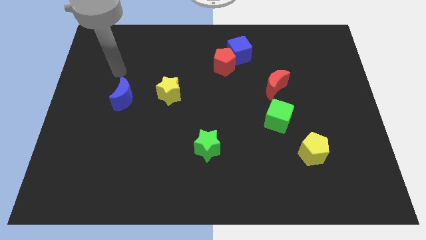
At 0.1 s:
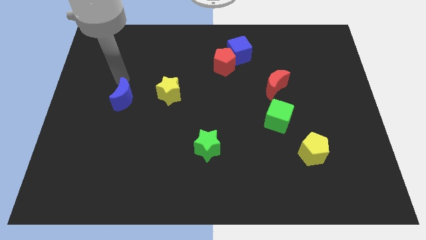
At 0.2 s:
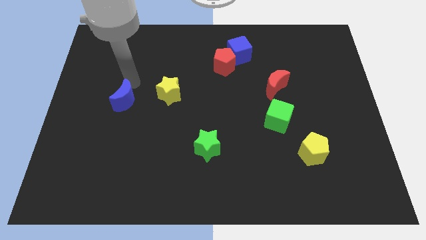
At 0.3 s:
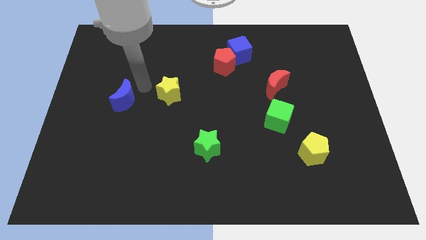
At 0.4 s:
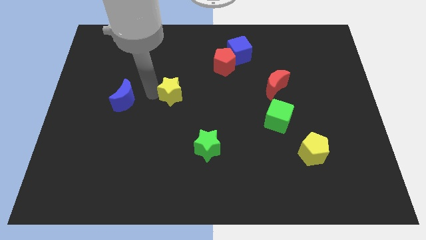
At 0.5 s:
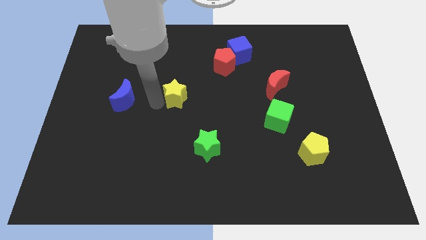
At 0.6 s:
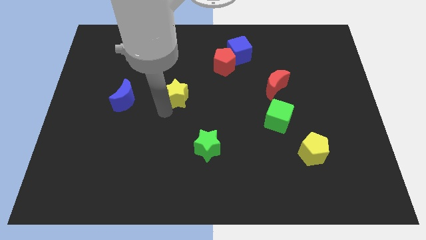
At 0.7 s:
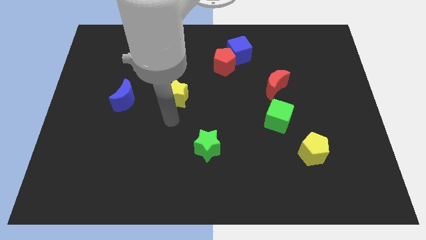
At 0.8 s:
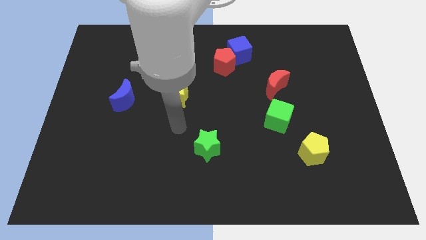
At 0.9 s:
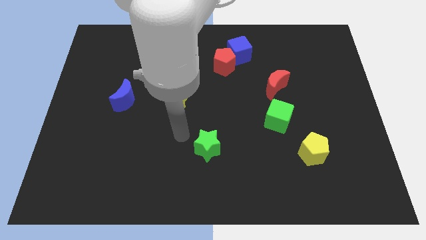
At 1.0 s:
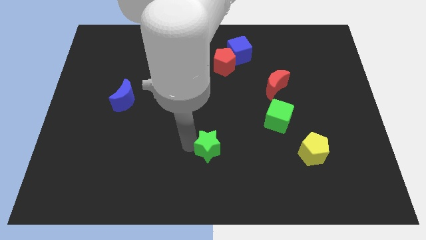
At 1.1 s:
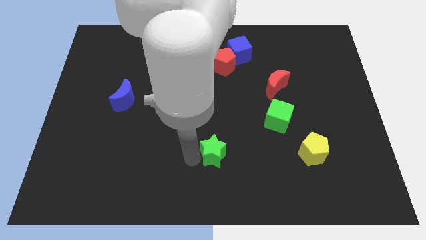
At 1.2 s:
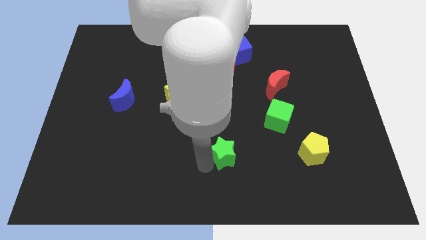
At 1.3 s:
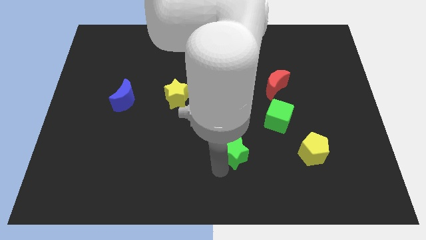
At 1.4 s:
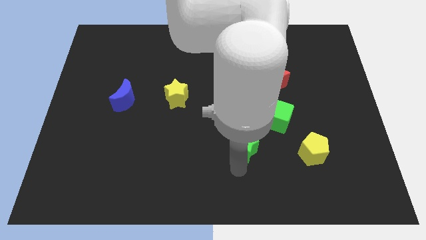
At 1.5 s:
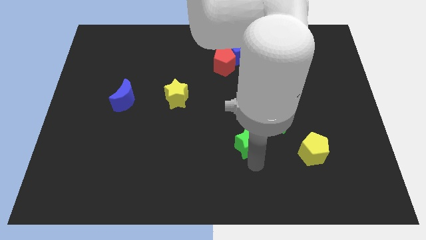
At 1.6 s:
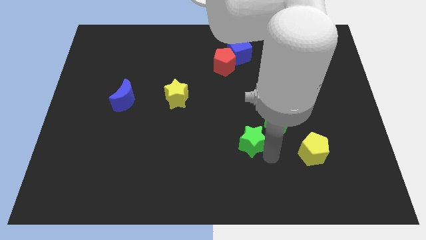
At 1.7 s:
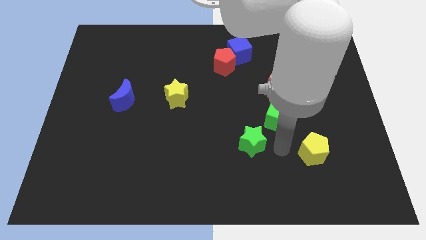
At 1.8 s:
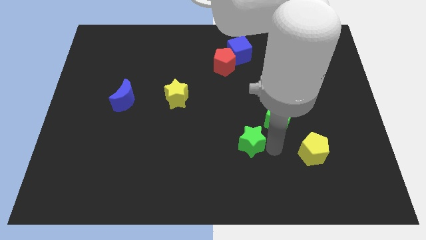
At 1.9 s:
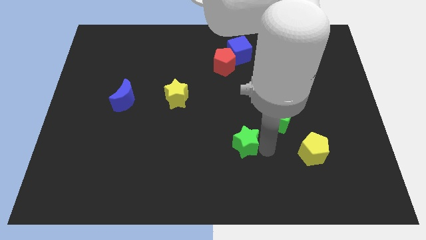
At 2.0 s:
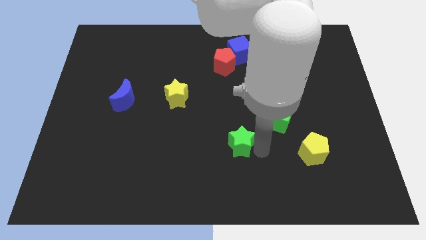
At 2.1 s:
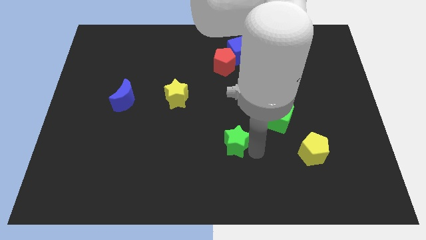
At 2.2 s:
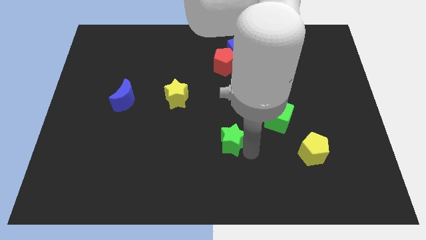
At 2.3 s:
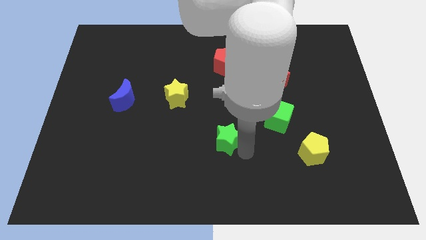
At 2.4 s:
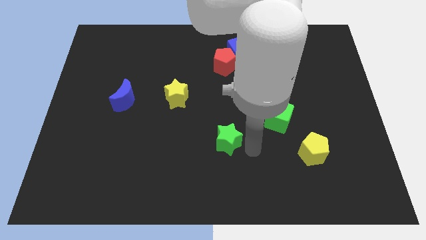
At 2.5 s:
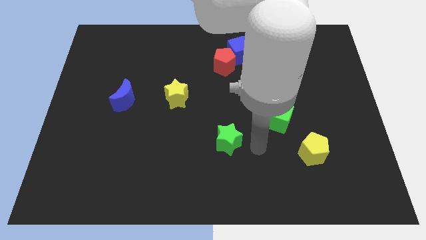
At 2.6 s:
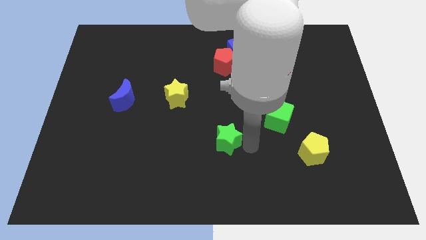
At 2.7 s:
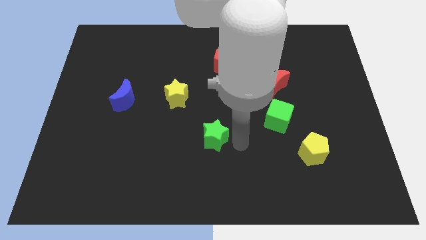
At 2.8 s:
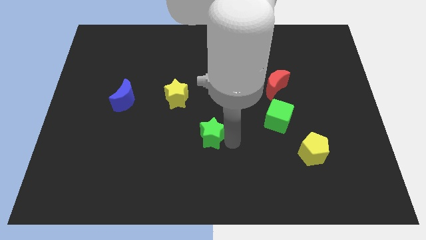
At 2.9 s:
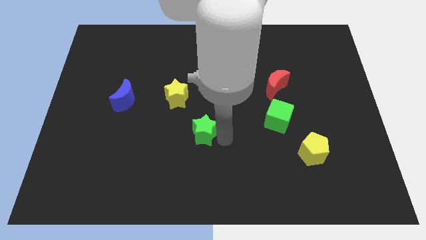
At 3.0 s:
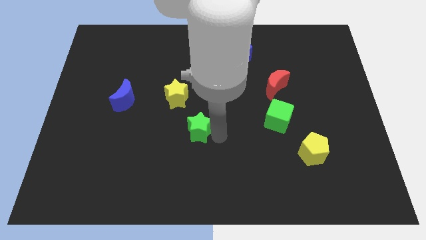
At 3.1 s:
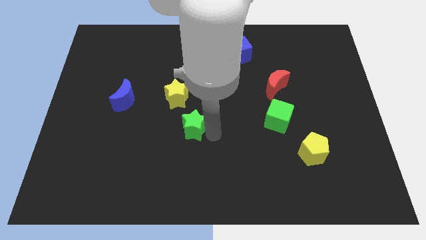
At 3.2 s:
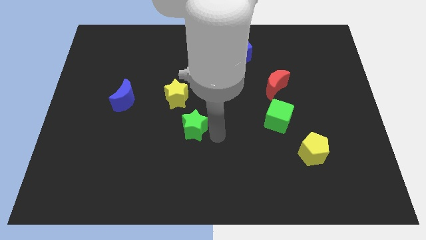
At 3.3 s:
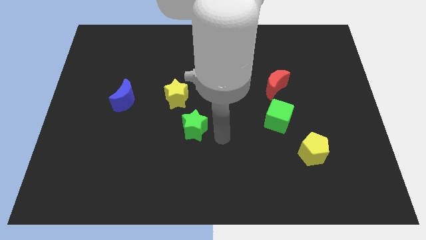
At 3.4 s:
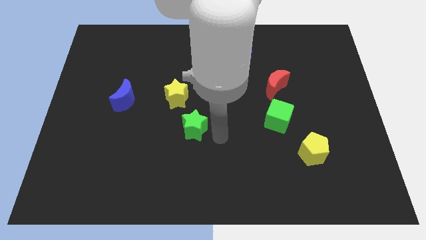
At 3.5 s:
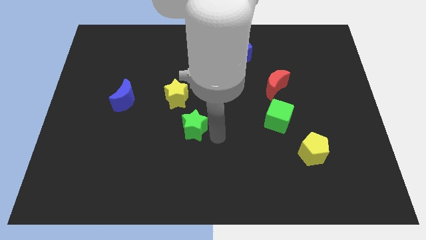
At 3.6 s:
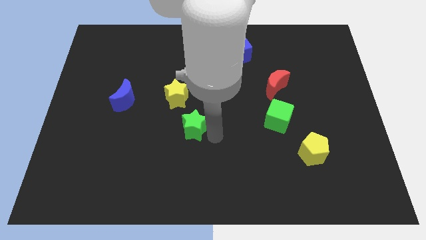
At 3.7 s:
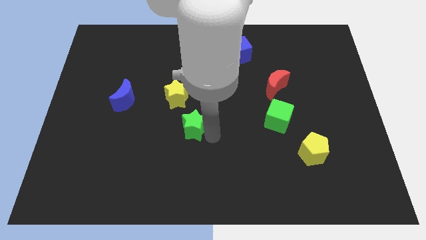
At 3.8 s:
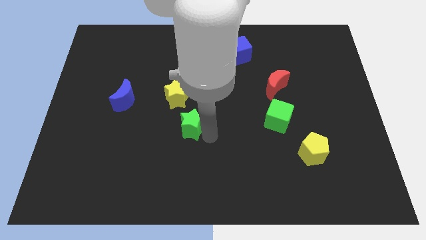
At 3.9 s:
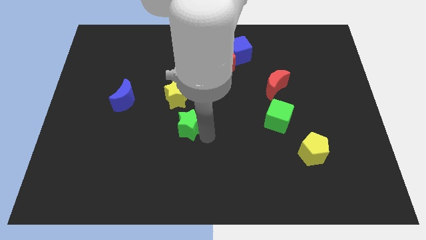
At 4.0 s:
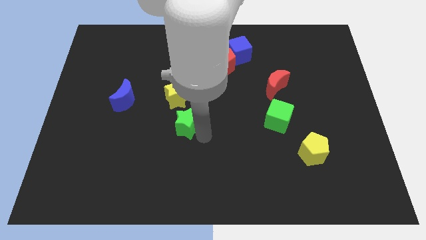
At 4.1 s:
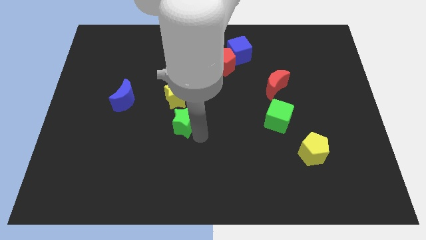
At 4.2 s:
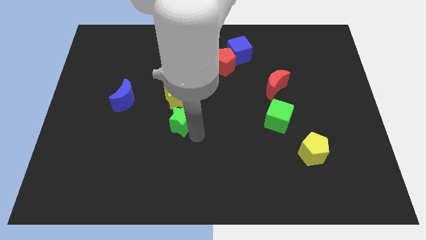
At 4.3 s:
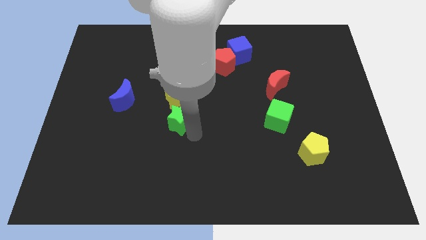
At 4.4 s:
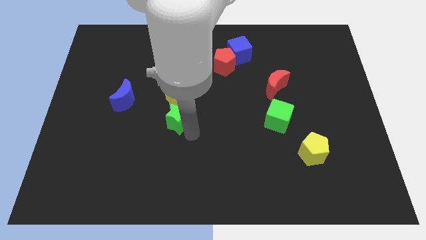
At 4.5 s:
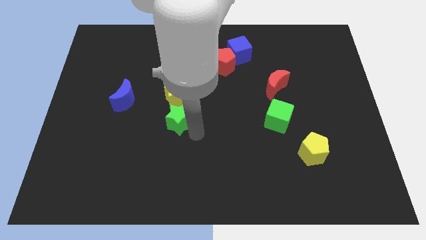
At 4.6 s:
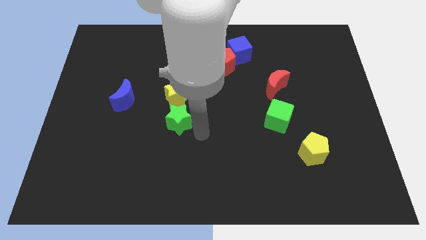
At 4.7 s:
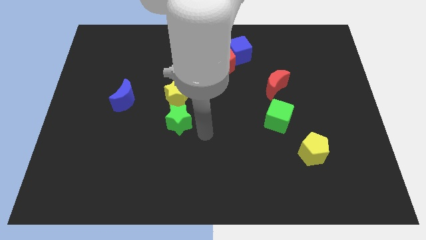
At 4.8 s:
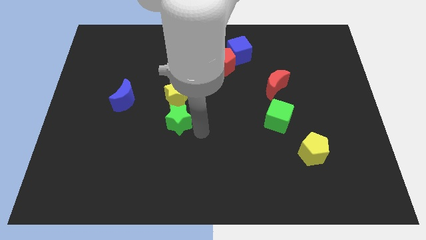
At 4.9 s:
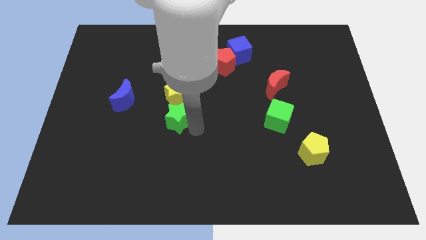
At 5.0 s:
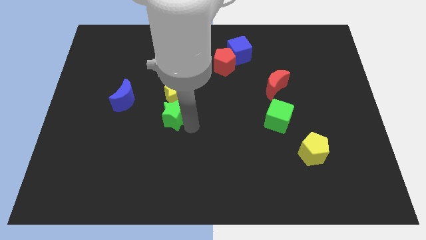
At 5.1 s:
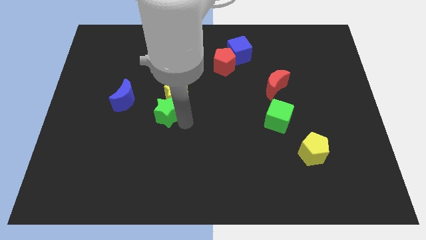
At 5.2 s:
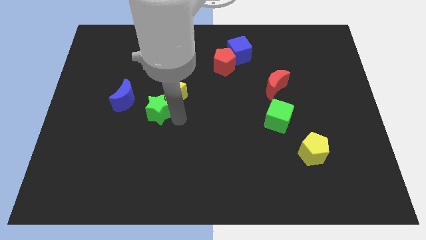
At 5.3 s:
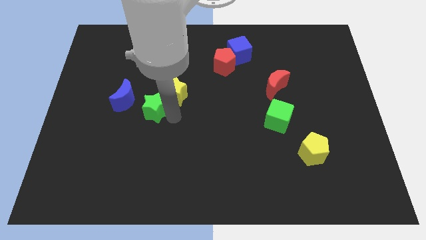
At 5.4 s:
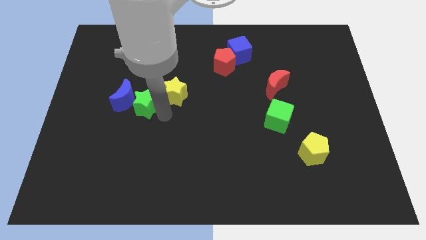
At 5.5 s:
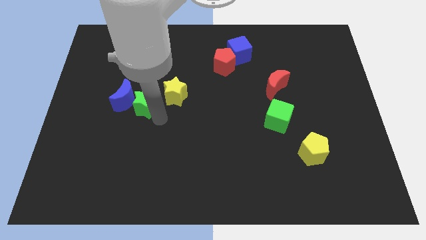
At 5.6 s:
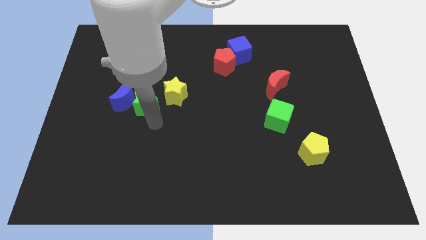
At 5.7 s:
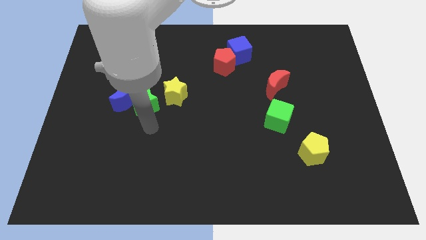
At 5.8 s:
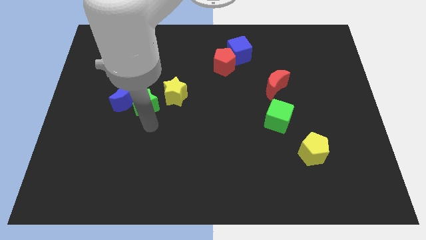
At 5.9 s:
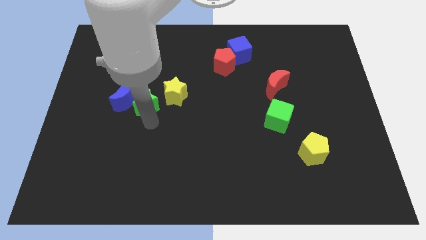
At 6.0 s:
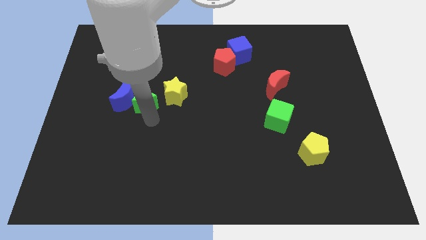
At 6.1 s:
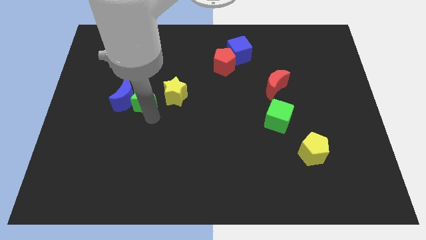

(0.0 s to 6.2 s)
slide the green star diagonally up and to the left

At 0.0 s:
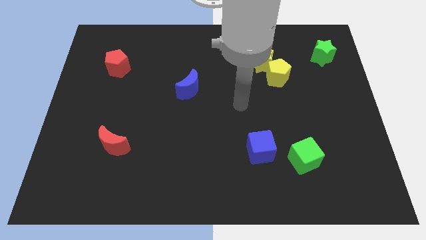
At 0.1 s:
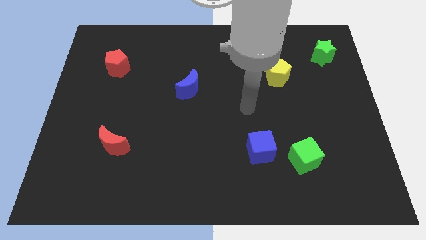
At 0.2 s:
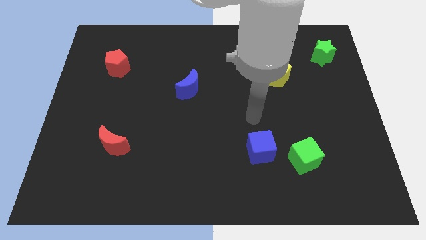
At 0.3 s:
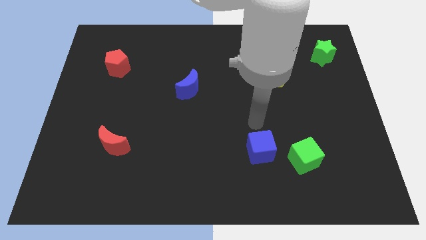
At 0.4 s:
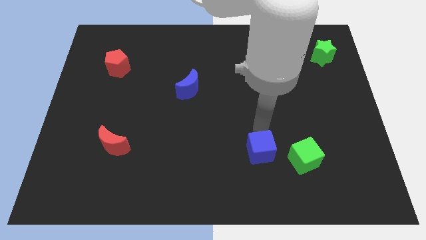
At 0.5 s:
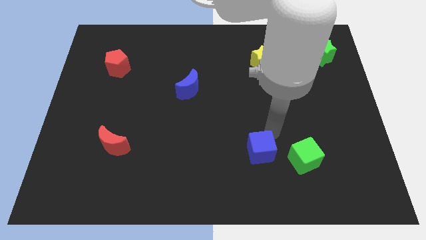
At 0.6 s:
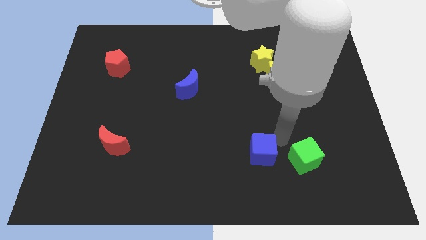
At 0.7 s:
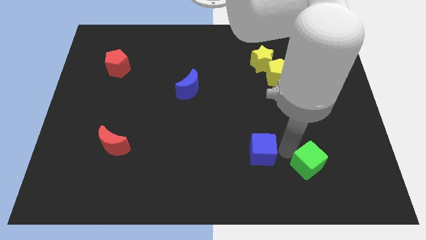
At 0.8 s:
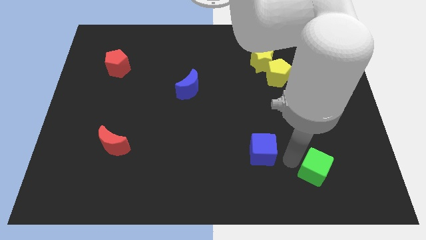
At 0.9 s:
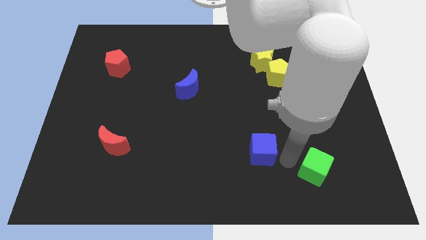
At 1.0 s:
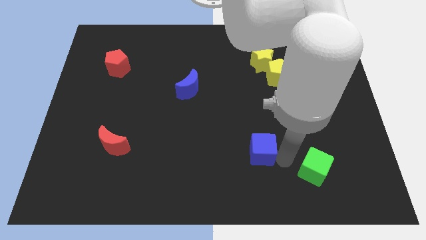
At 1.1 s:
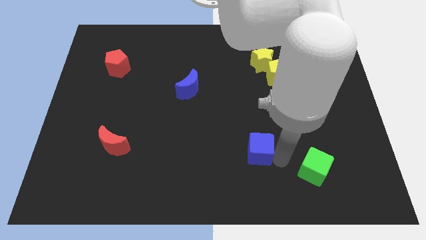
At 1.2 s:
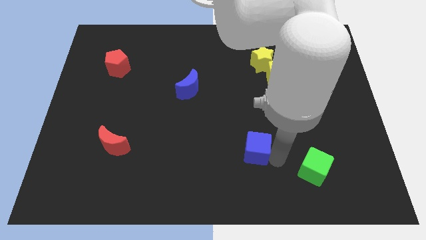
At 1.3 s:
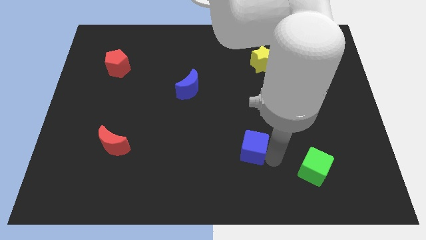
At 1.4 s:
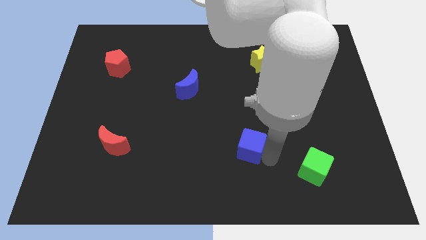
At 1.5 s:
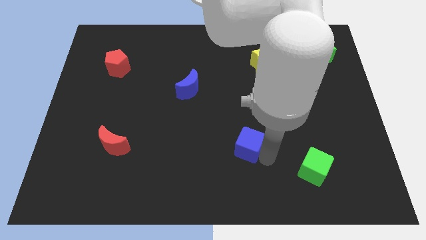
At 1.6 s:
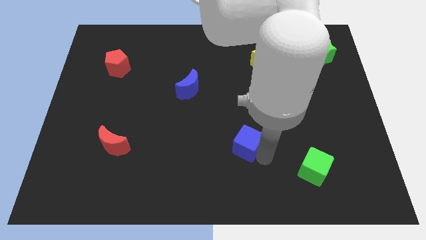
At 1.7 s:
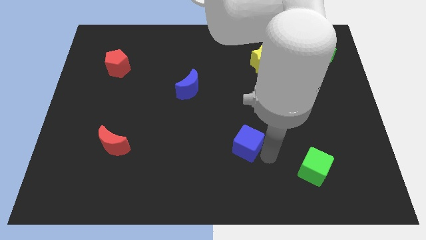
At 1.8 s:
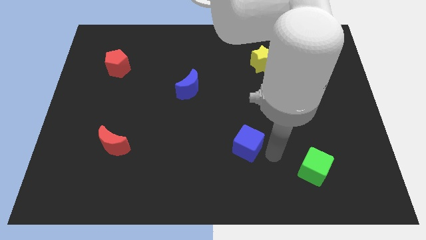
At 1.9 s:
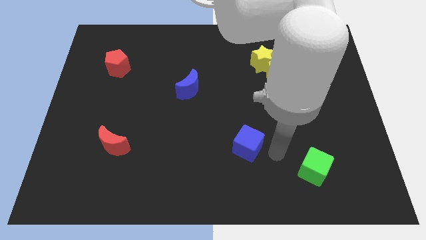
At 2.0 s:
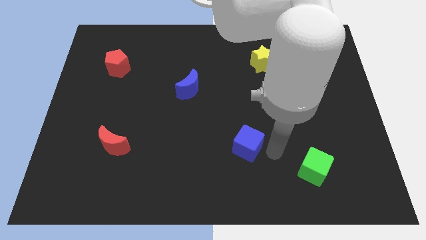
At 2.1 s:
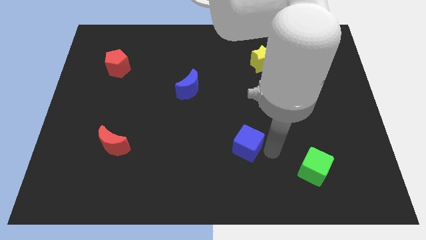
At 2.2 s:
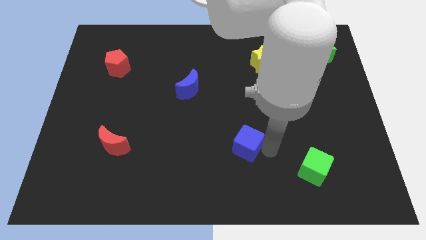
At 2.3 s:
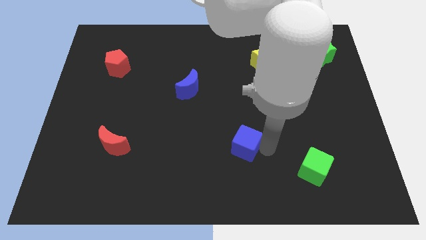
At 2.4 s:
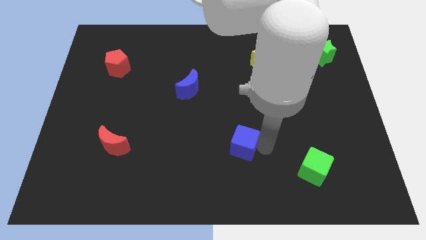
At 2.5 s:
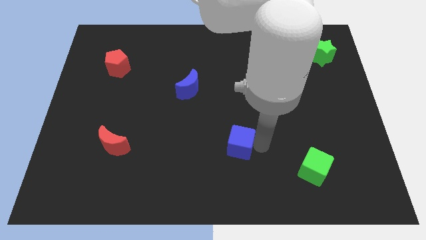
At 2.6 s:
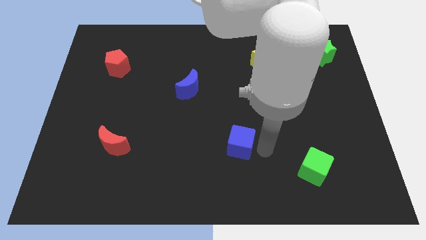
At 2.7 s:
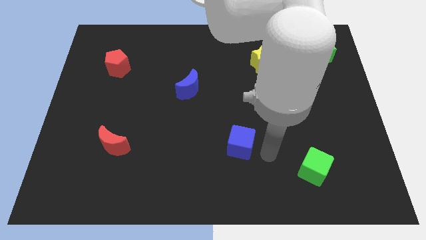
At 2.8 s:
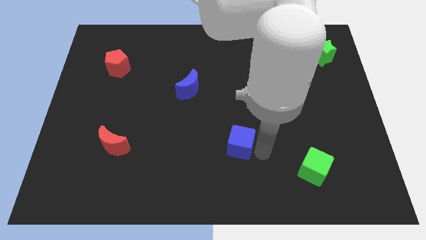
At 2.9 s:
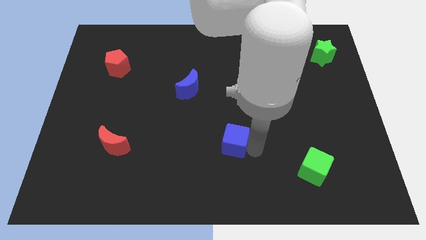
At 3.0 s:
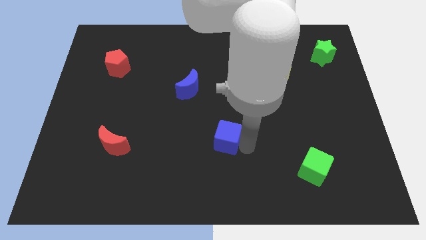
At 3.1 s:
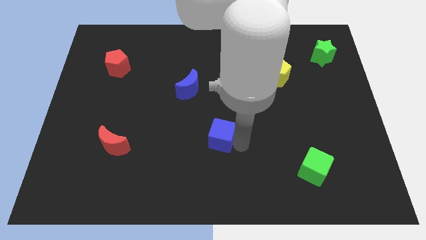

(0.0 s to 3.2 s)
push the blue cube diagonally up and left a little bit
